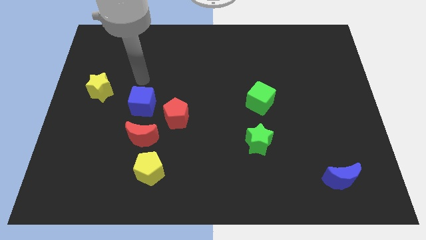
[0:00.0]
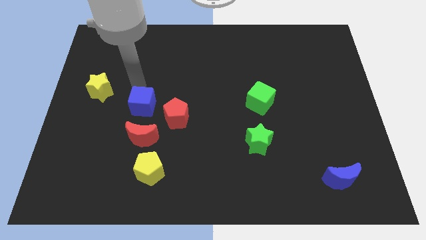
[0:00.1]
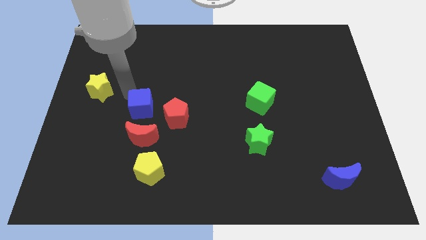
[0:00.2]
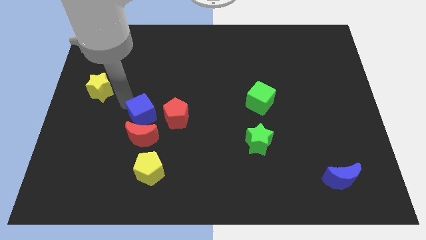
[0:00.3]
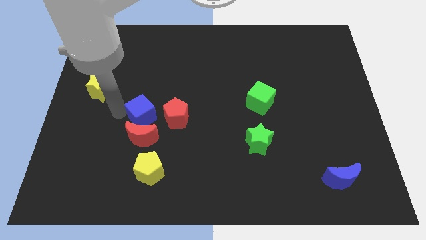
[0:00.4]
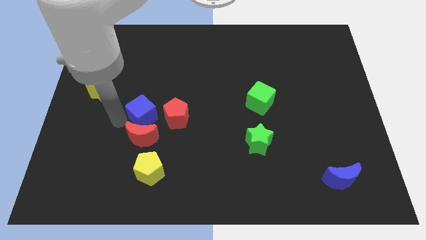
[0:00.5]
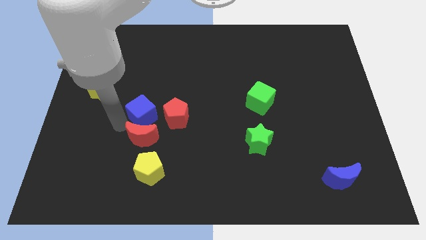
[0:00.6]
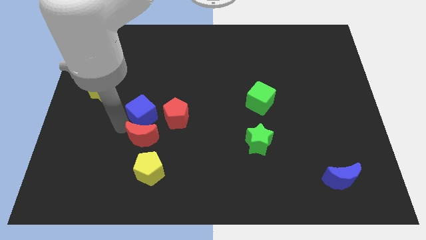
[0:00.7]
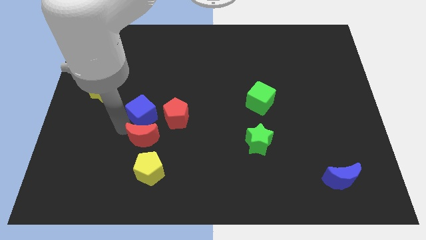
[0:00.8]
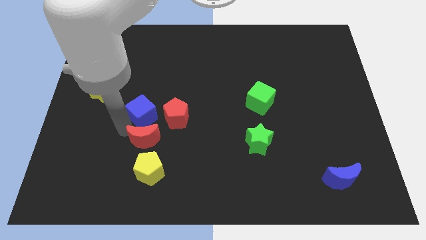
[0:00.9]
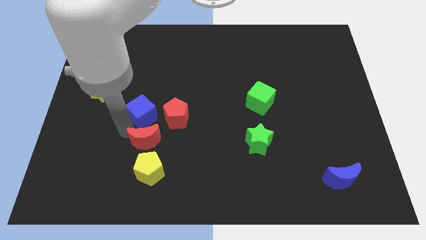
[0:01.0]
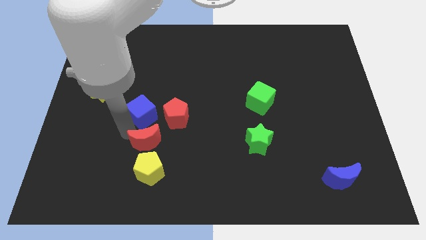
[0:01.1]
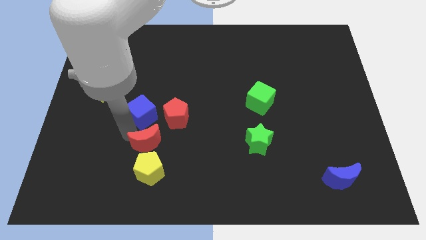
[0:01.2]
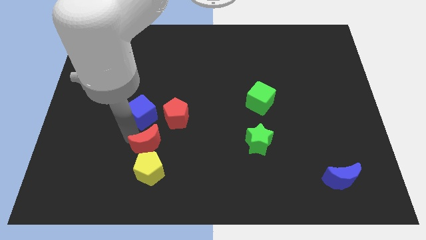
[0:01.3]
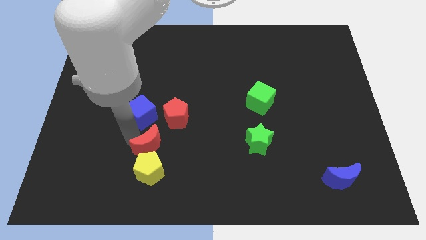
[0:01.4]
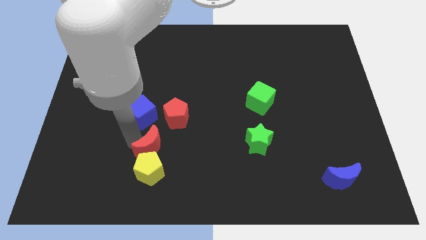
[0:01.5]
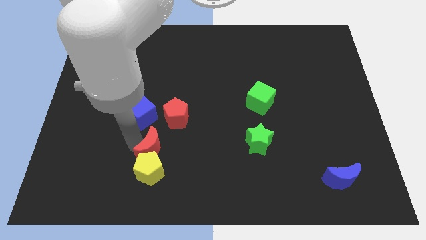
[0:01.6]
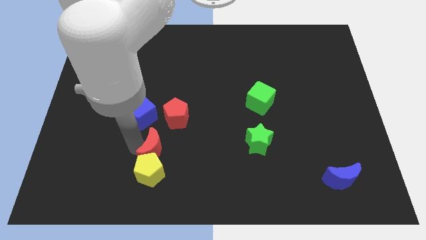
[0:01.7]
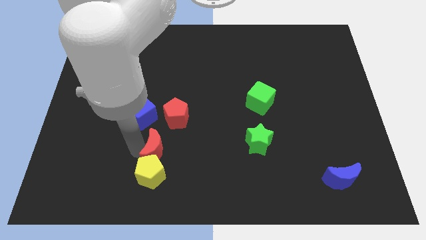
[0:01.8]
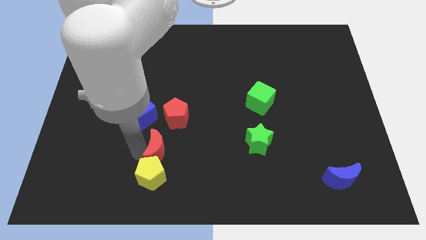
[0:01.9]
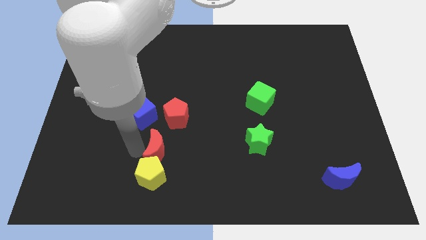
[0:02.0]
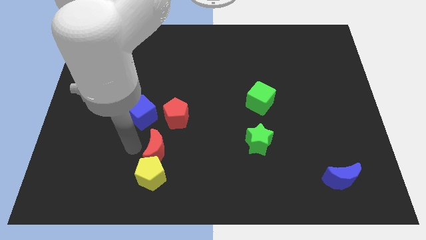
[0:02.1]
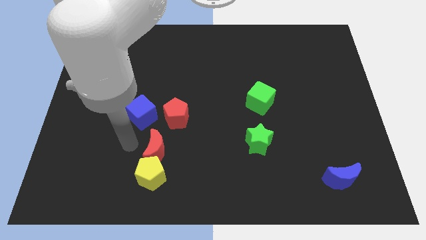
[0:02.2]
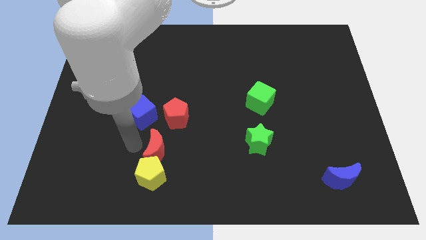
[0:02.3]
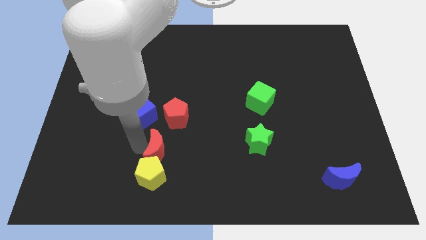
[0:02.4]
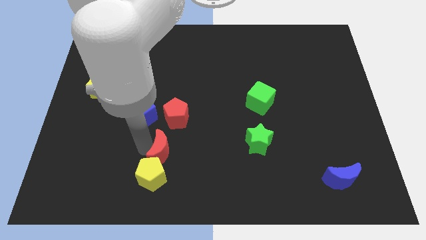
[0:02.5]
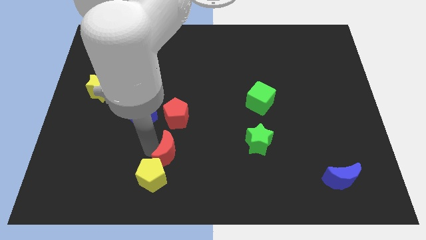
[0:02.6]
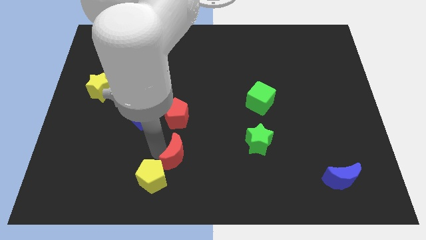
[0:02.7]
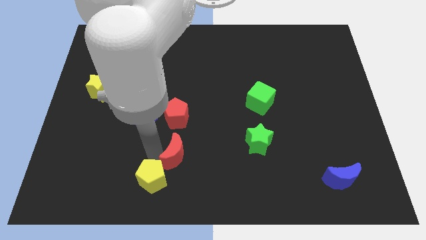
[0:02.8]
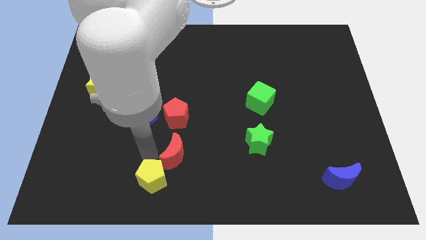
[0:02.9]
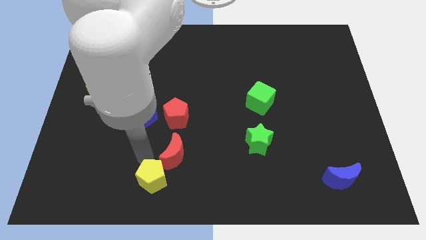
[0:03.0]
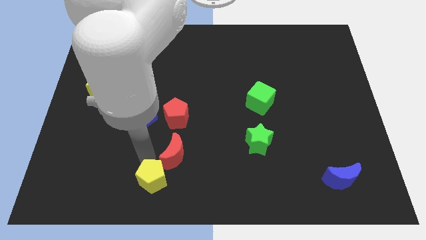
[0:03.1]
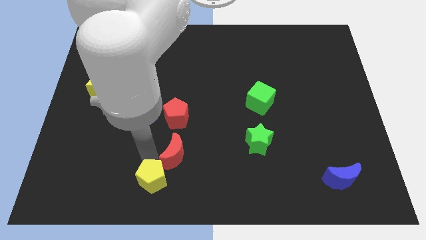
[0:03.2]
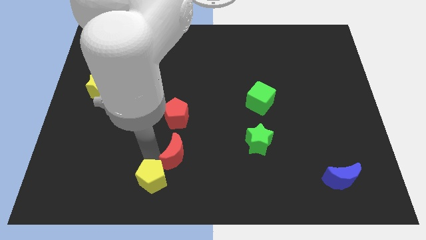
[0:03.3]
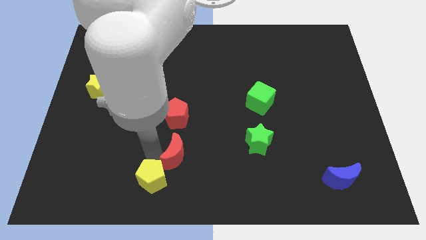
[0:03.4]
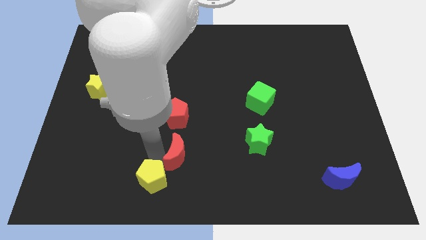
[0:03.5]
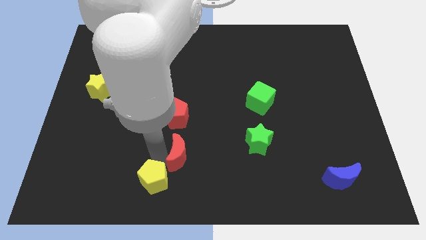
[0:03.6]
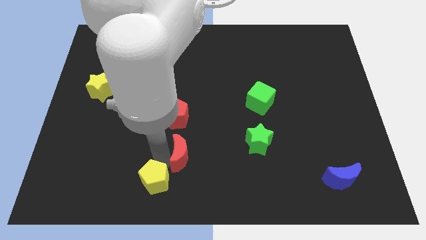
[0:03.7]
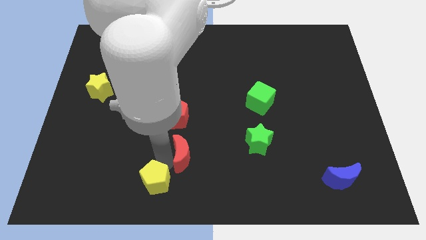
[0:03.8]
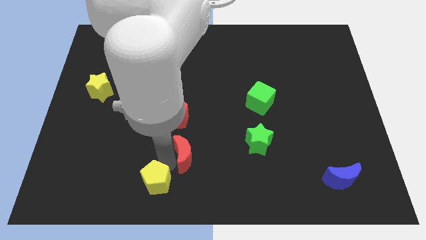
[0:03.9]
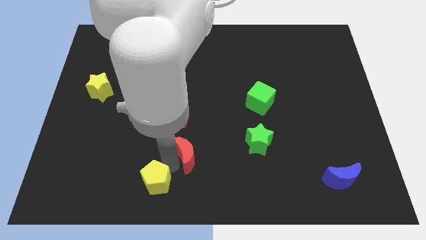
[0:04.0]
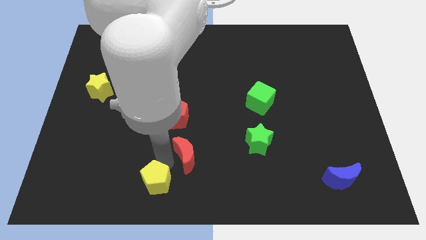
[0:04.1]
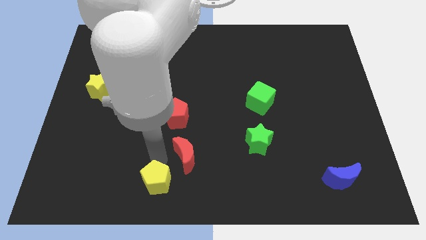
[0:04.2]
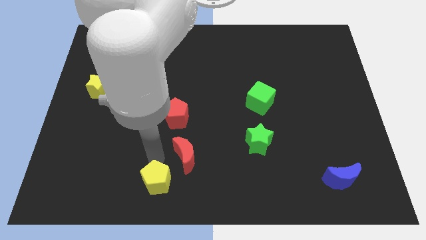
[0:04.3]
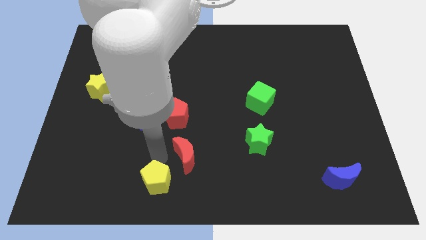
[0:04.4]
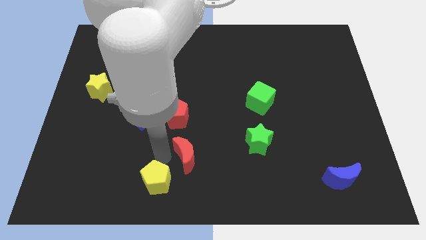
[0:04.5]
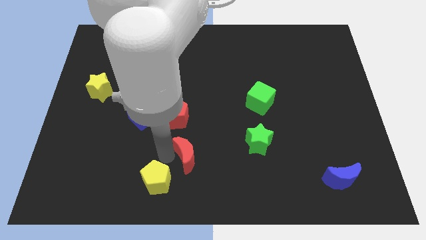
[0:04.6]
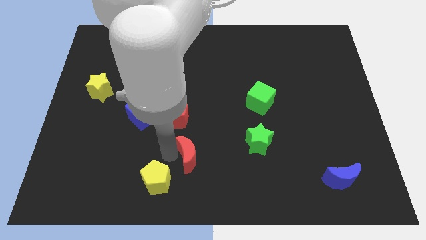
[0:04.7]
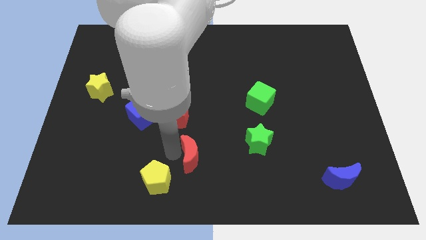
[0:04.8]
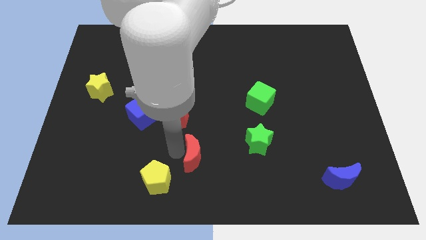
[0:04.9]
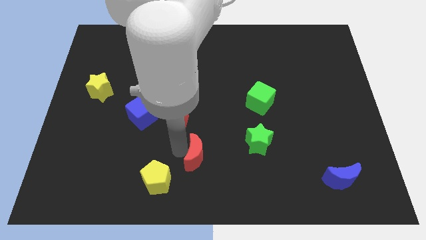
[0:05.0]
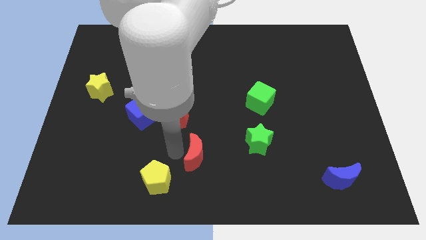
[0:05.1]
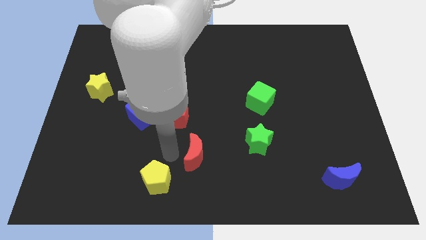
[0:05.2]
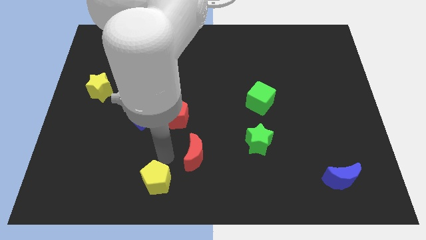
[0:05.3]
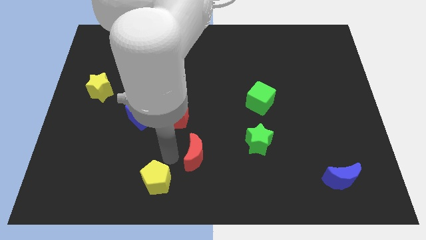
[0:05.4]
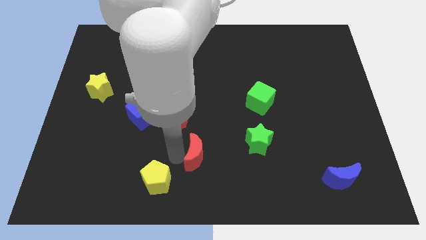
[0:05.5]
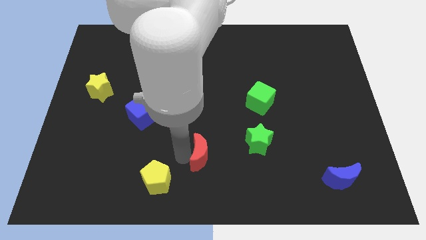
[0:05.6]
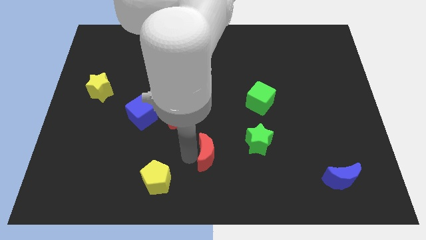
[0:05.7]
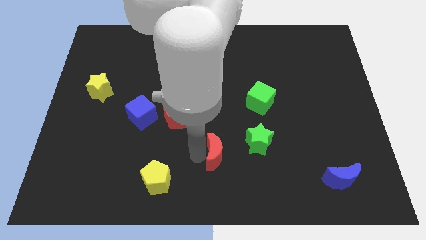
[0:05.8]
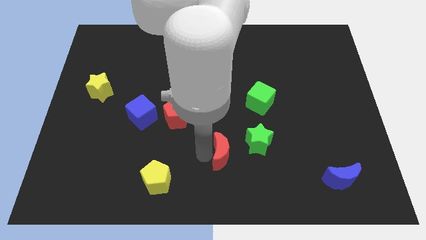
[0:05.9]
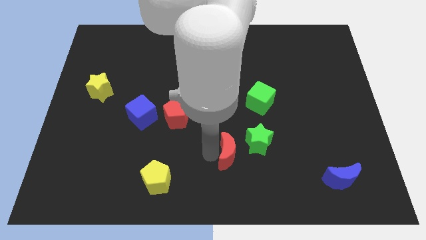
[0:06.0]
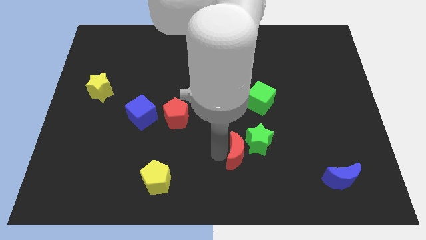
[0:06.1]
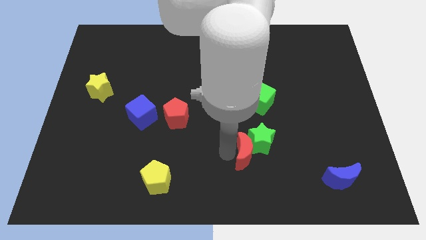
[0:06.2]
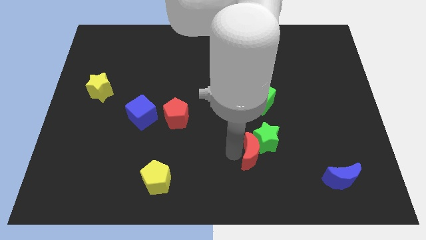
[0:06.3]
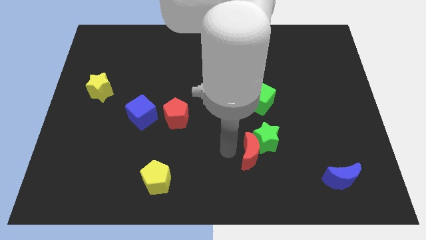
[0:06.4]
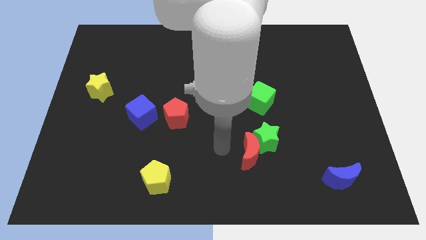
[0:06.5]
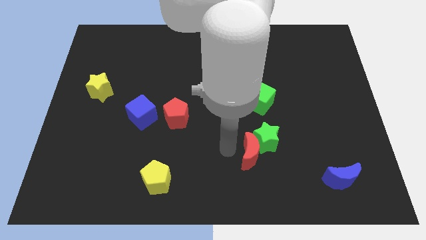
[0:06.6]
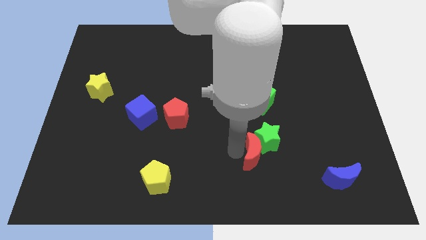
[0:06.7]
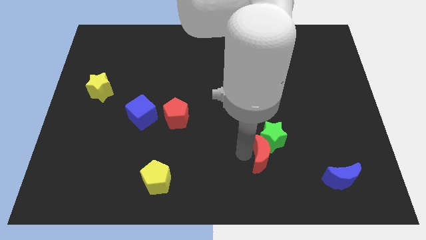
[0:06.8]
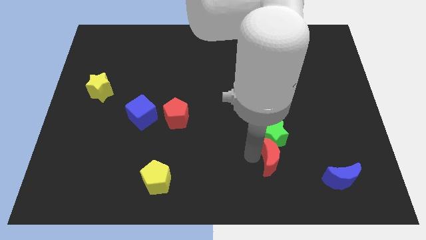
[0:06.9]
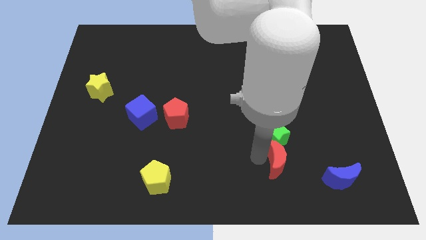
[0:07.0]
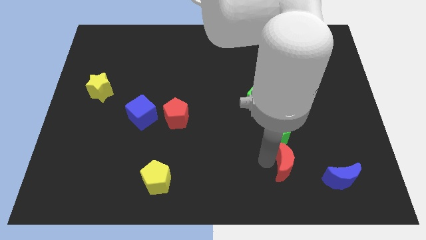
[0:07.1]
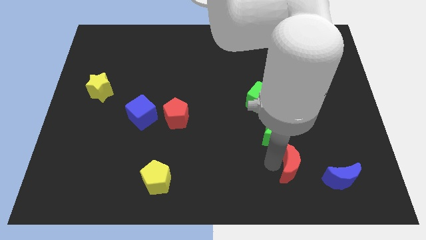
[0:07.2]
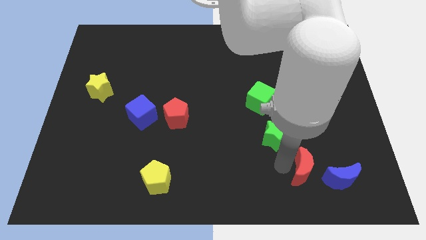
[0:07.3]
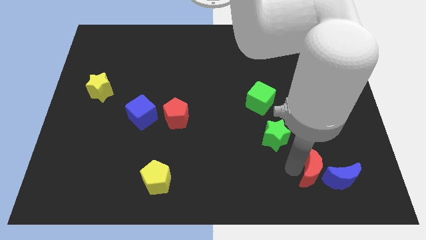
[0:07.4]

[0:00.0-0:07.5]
put the red moon next to the blue moon
